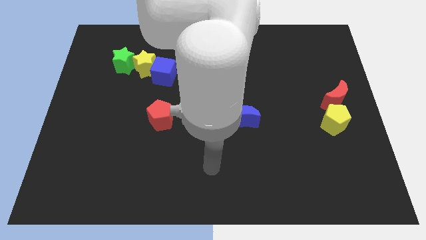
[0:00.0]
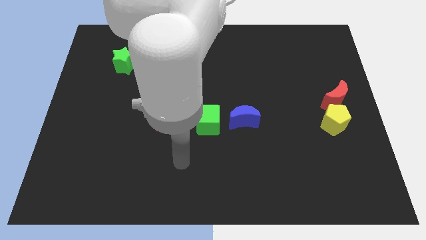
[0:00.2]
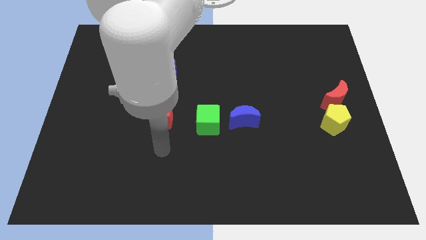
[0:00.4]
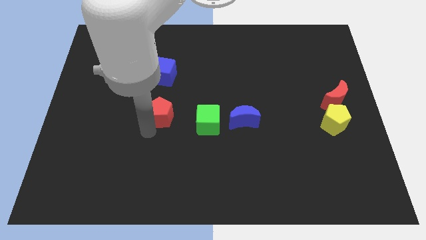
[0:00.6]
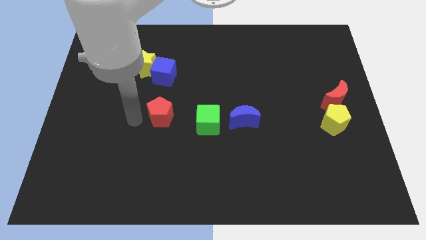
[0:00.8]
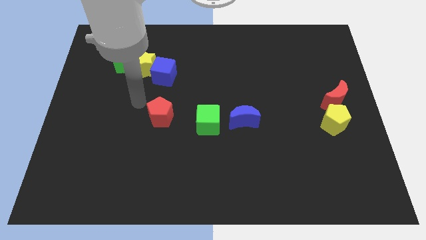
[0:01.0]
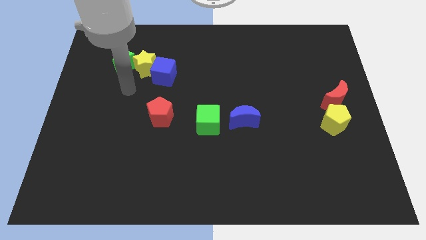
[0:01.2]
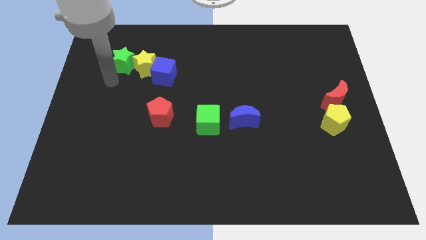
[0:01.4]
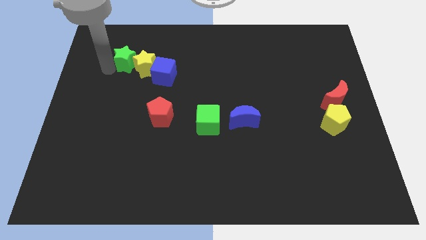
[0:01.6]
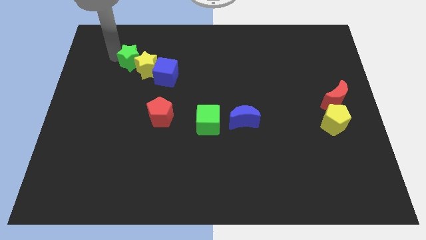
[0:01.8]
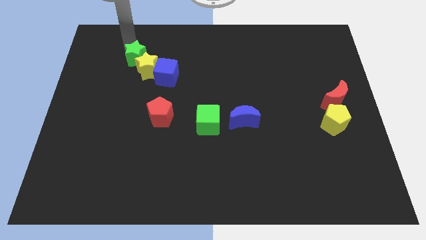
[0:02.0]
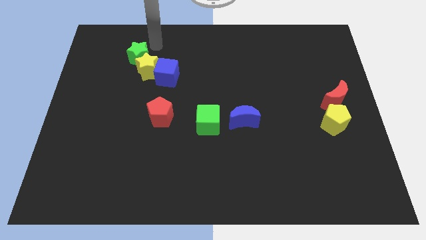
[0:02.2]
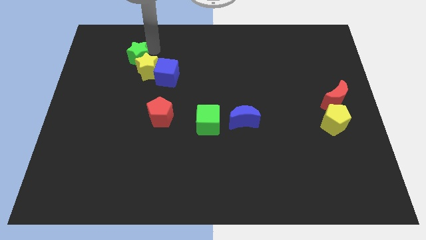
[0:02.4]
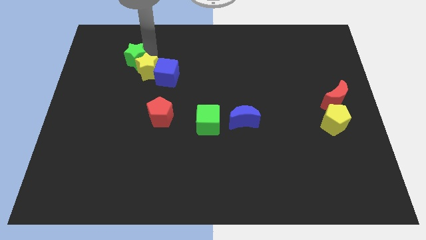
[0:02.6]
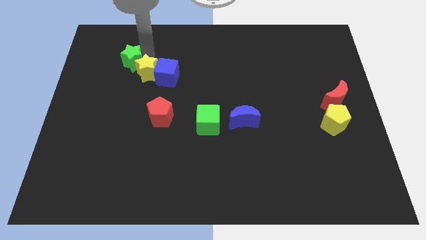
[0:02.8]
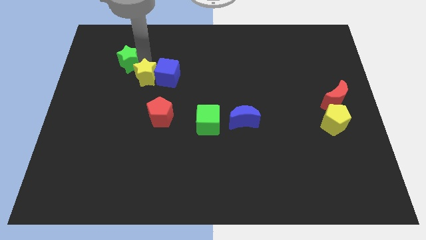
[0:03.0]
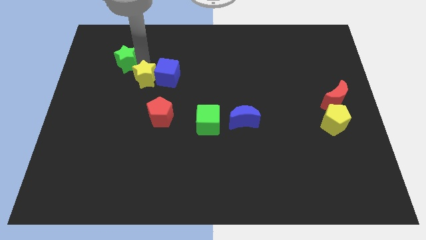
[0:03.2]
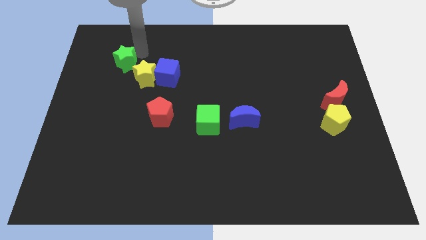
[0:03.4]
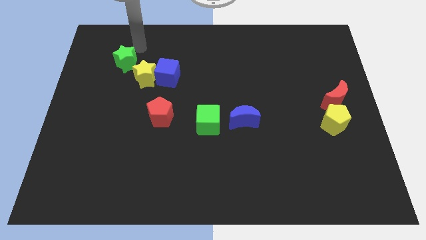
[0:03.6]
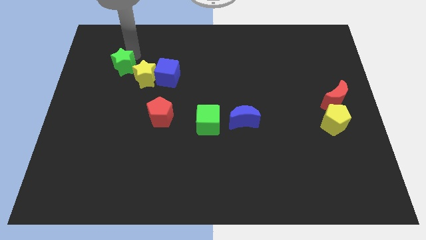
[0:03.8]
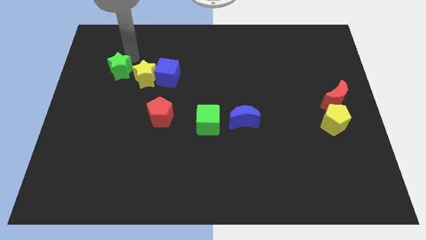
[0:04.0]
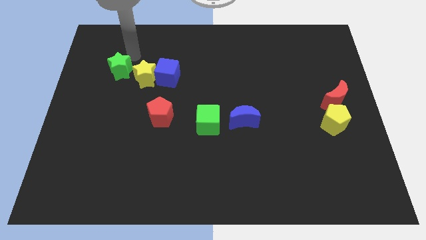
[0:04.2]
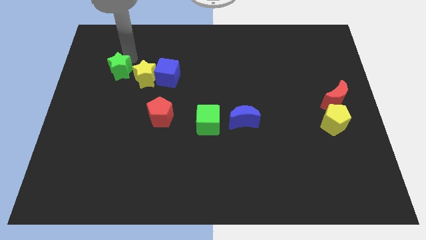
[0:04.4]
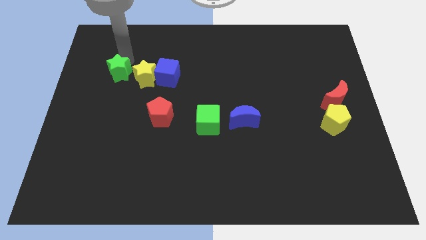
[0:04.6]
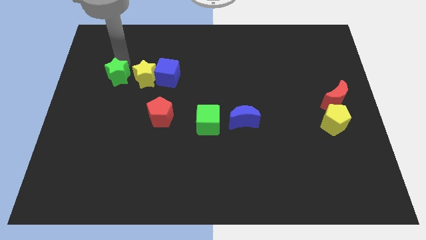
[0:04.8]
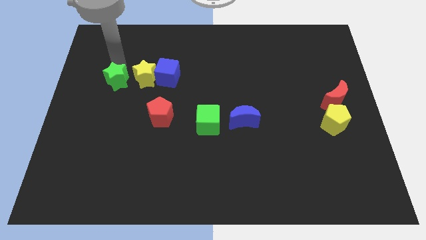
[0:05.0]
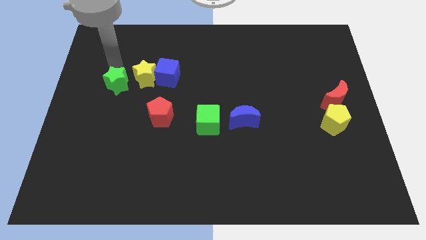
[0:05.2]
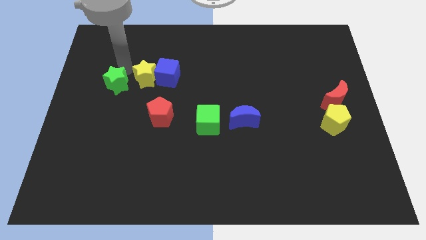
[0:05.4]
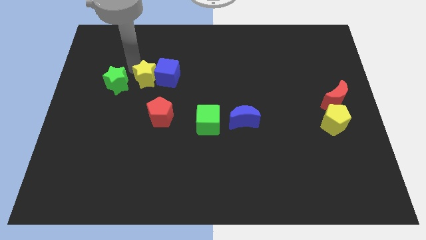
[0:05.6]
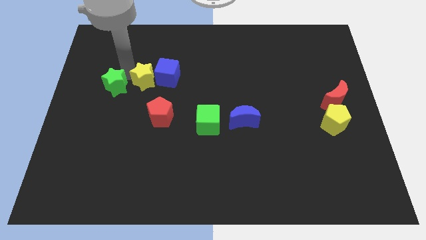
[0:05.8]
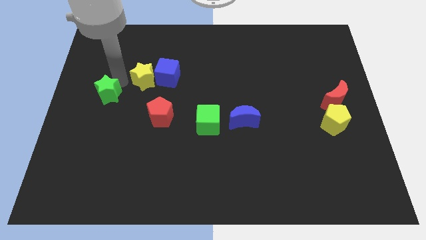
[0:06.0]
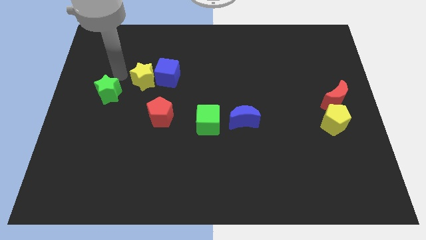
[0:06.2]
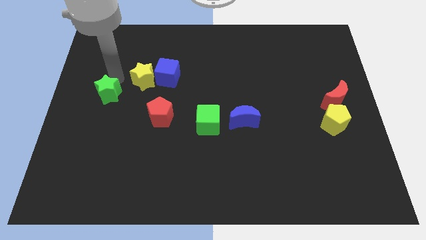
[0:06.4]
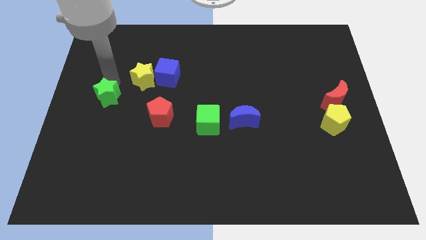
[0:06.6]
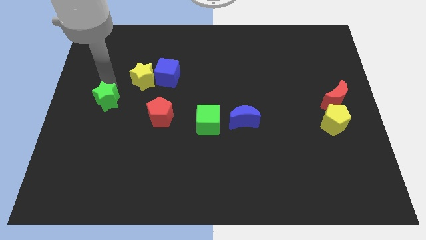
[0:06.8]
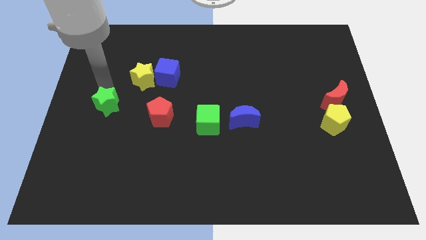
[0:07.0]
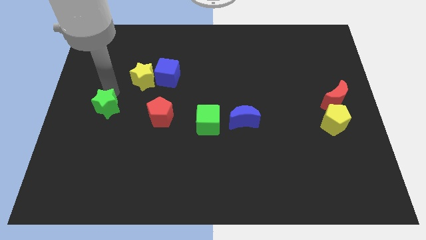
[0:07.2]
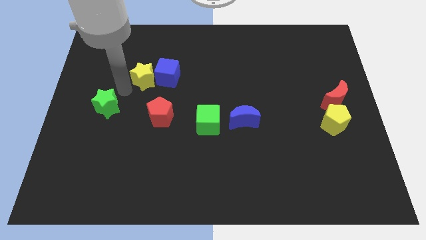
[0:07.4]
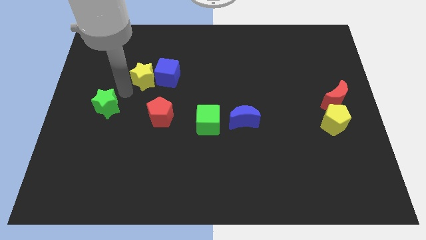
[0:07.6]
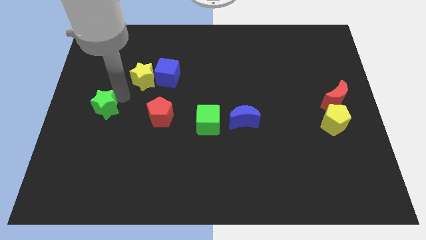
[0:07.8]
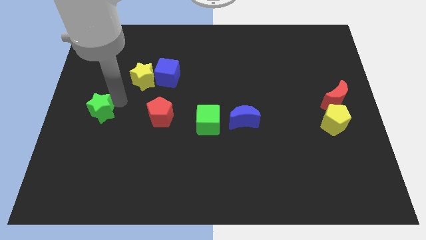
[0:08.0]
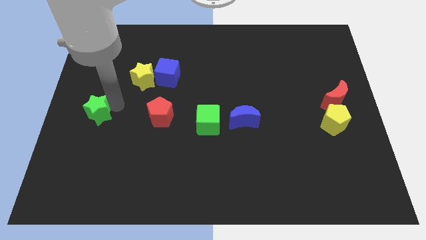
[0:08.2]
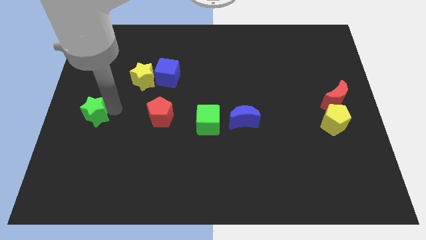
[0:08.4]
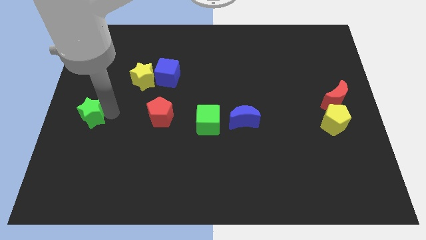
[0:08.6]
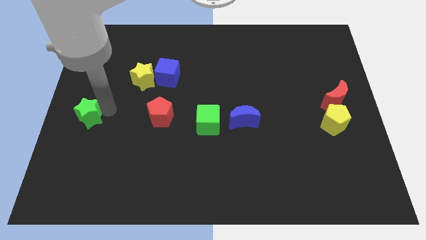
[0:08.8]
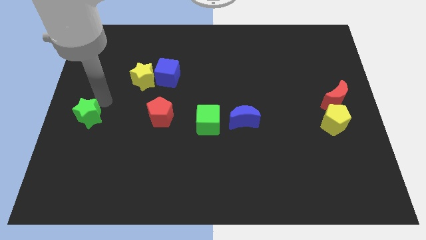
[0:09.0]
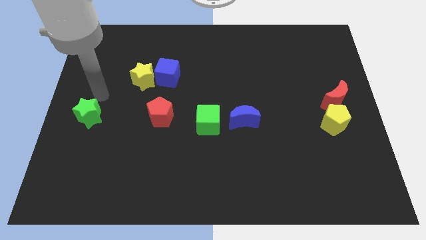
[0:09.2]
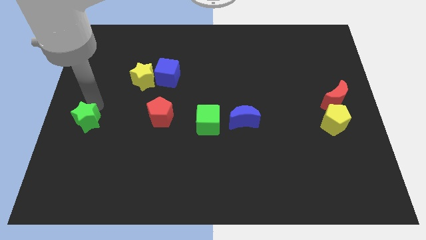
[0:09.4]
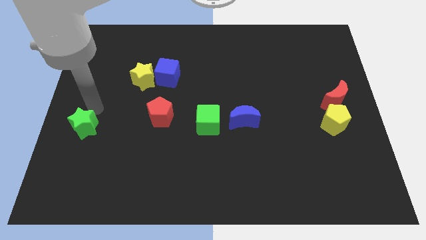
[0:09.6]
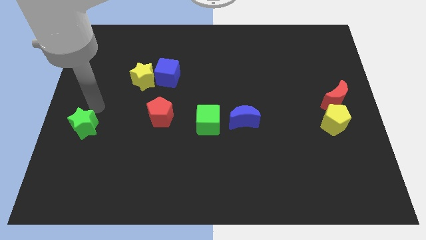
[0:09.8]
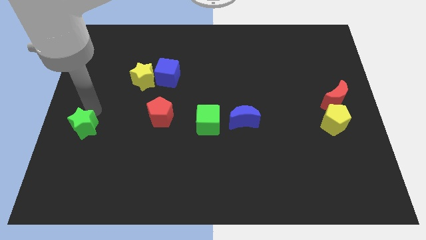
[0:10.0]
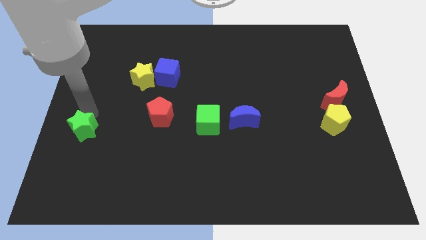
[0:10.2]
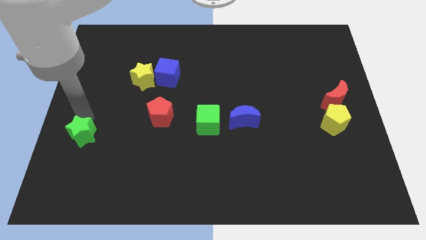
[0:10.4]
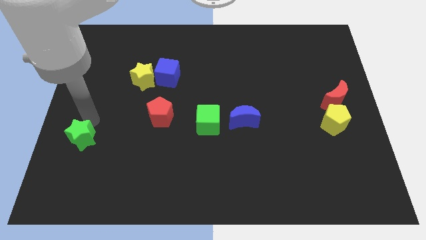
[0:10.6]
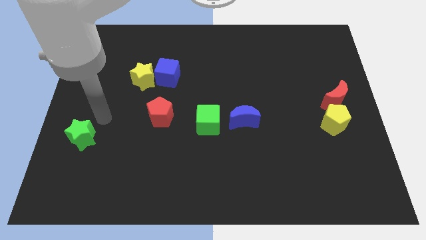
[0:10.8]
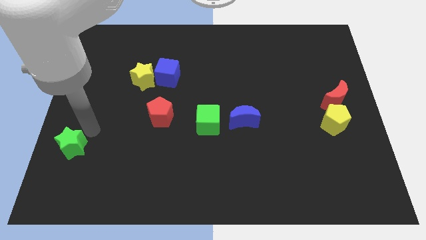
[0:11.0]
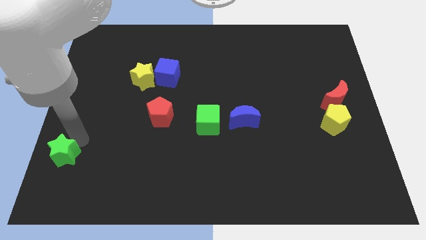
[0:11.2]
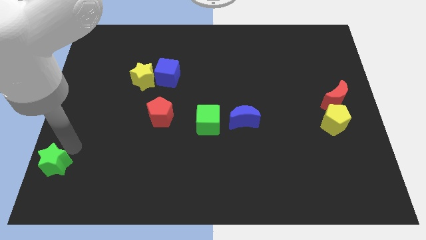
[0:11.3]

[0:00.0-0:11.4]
put the green star to the bottom left corner

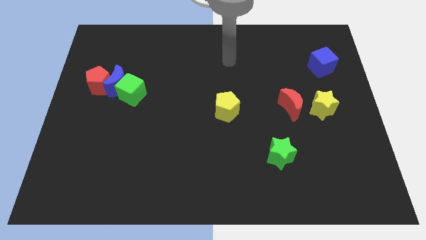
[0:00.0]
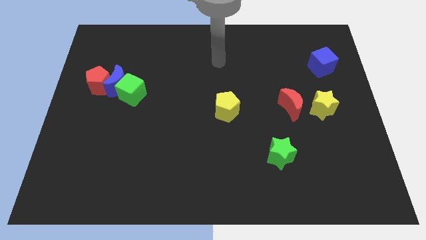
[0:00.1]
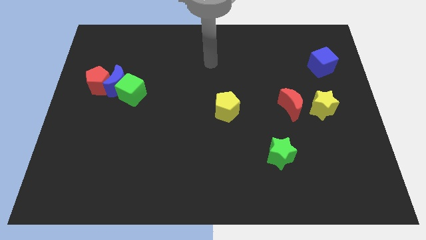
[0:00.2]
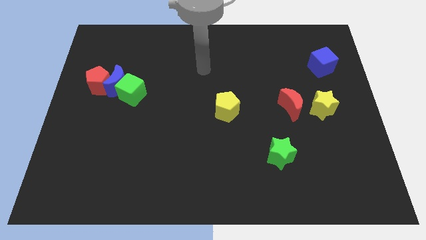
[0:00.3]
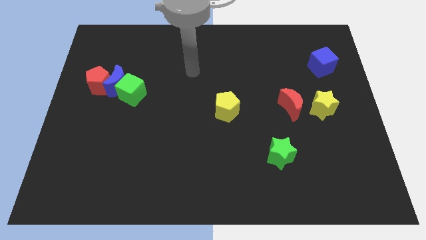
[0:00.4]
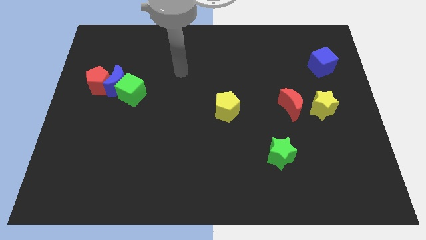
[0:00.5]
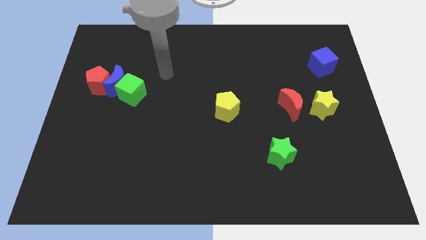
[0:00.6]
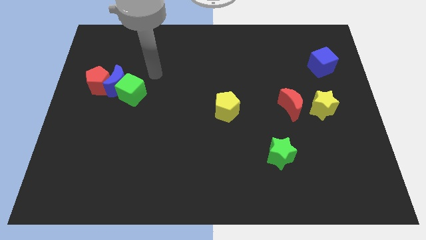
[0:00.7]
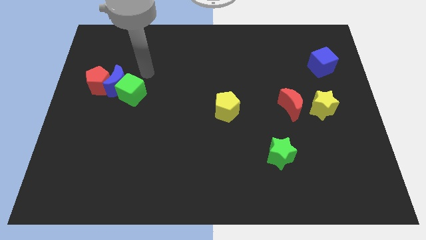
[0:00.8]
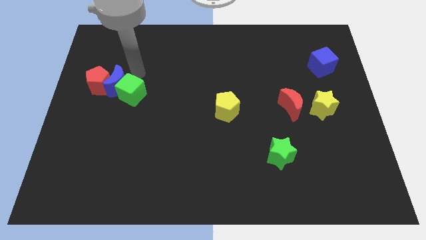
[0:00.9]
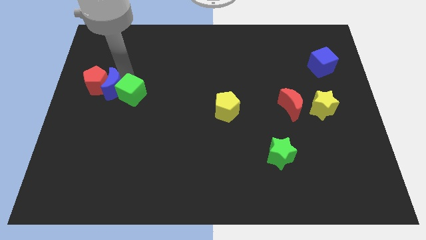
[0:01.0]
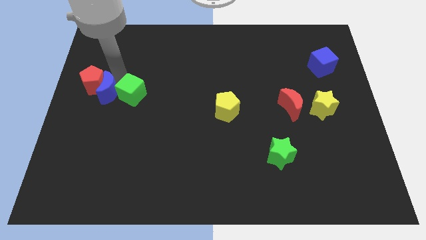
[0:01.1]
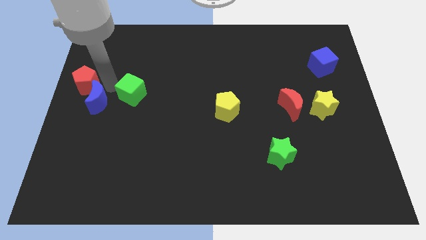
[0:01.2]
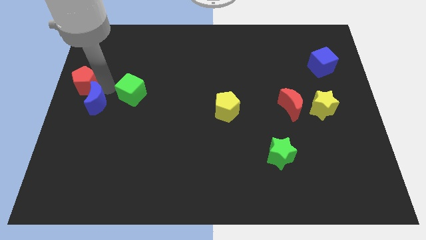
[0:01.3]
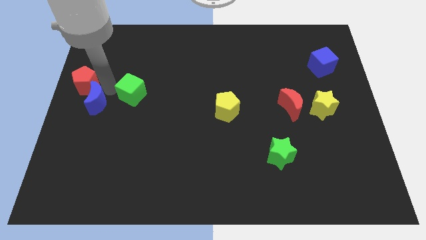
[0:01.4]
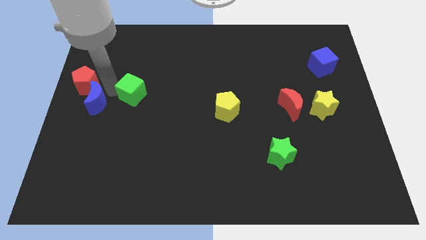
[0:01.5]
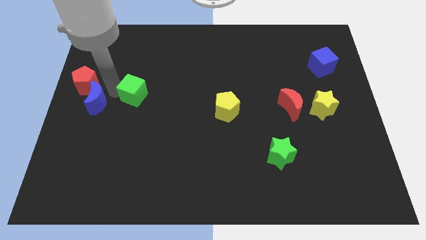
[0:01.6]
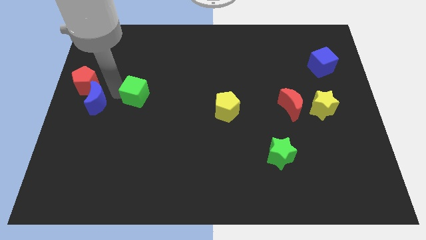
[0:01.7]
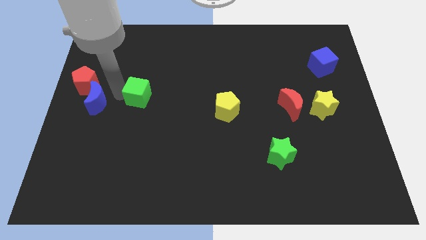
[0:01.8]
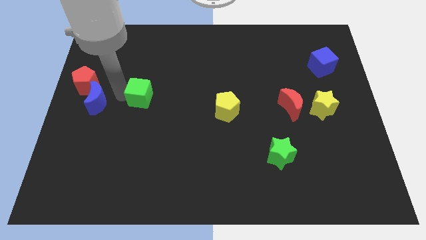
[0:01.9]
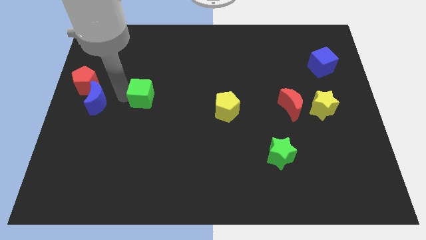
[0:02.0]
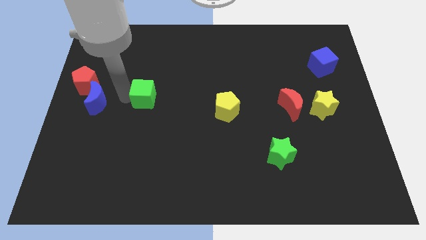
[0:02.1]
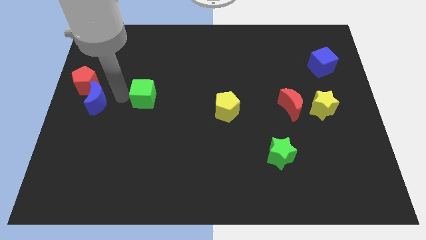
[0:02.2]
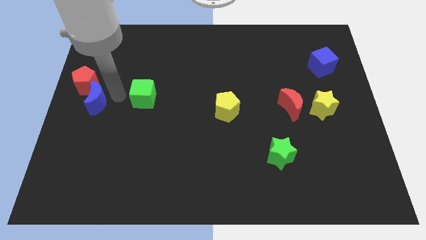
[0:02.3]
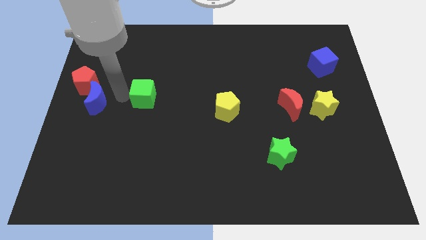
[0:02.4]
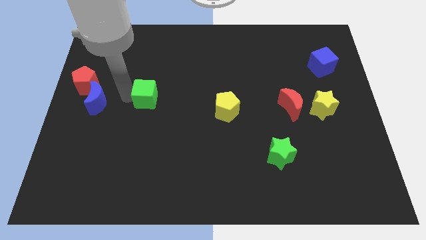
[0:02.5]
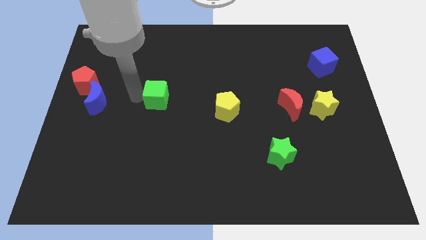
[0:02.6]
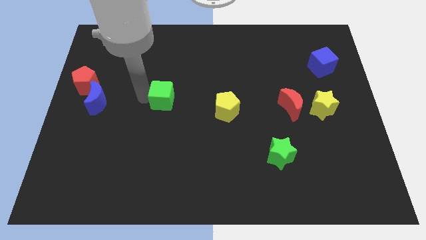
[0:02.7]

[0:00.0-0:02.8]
slide the green cube to the center of the board
